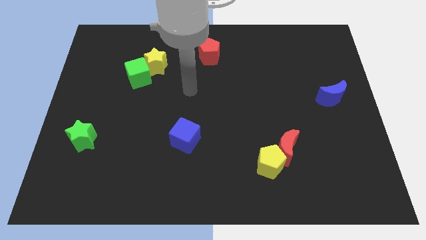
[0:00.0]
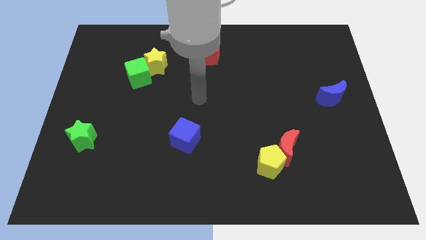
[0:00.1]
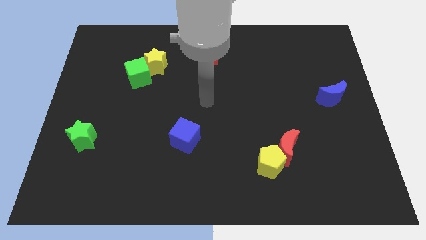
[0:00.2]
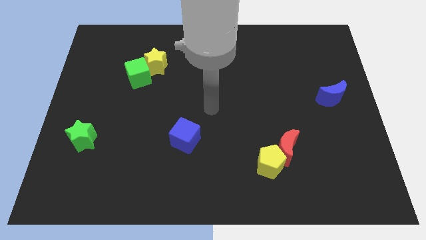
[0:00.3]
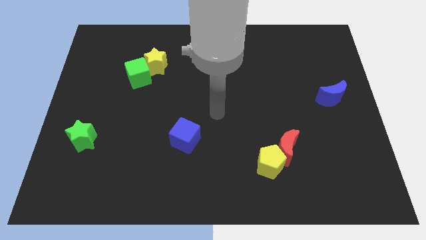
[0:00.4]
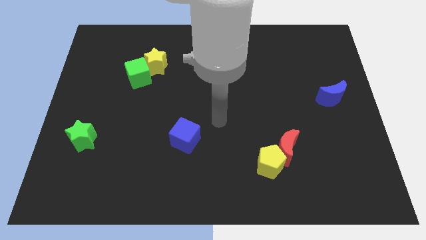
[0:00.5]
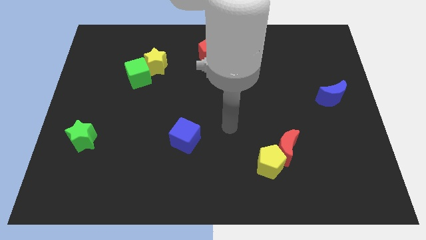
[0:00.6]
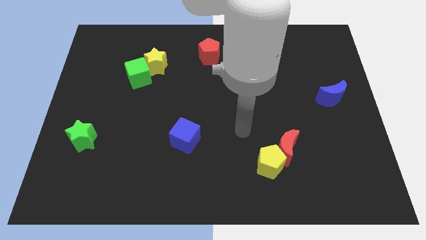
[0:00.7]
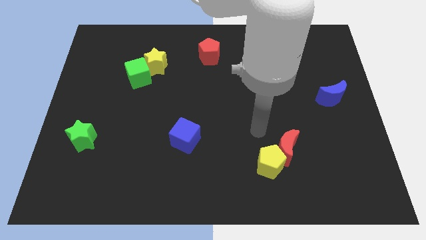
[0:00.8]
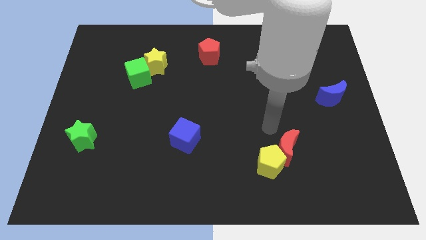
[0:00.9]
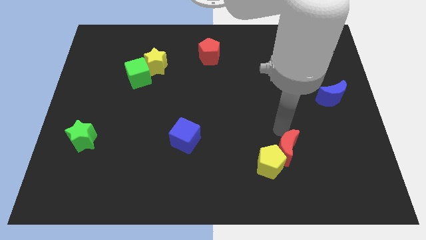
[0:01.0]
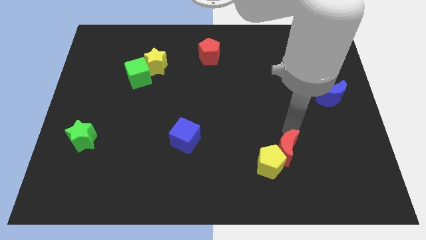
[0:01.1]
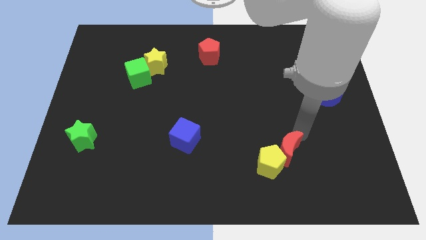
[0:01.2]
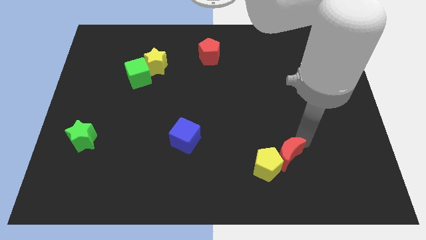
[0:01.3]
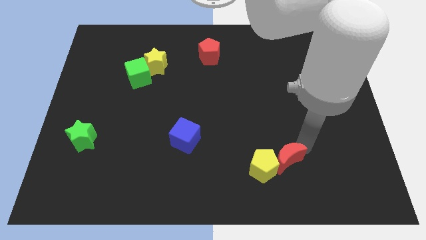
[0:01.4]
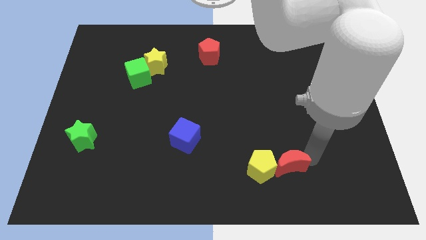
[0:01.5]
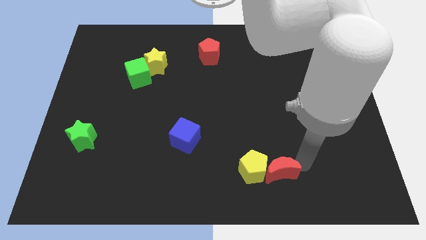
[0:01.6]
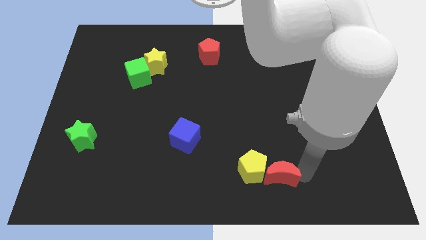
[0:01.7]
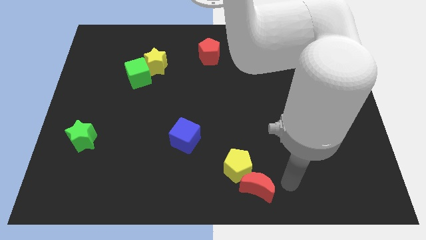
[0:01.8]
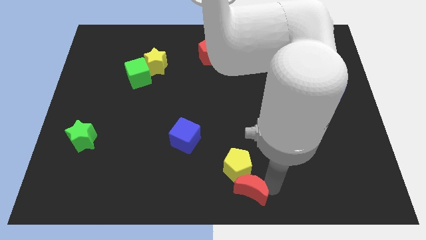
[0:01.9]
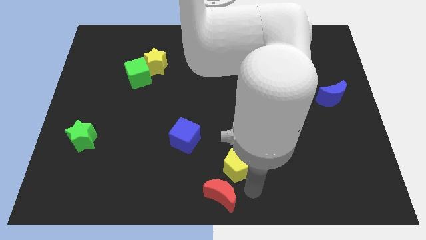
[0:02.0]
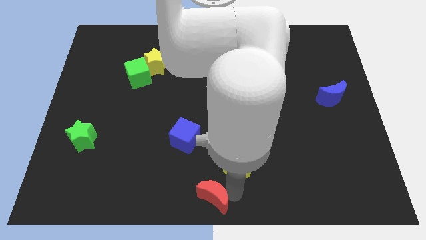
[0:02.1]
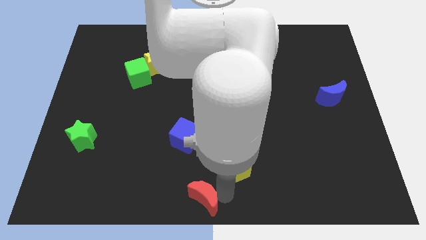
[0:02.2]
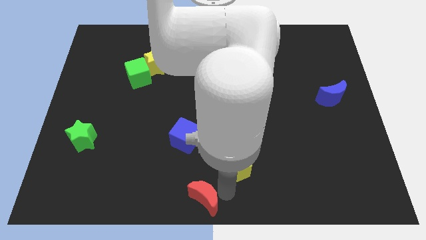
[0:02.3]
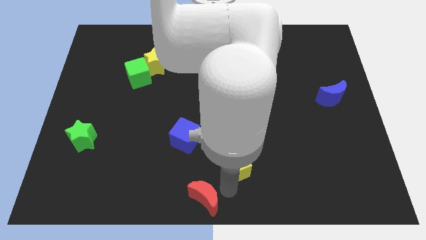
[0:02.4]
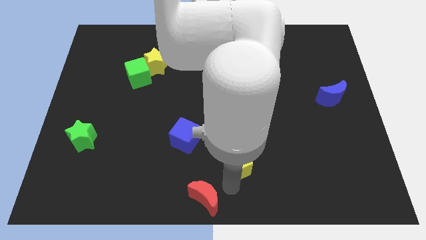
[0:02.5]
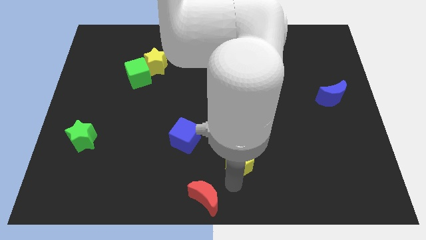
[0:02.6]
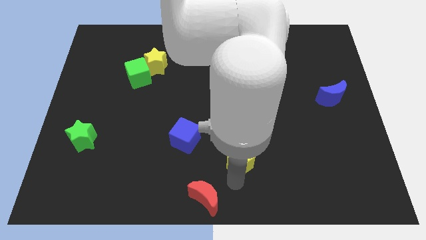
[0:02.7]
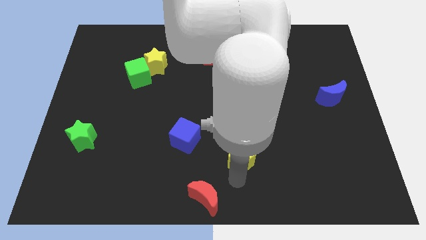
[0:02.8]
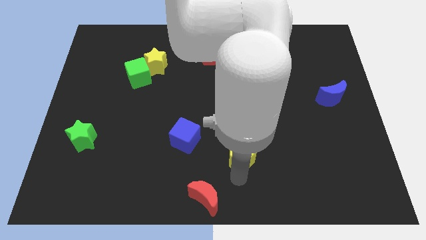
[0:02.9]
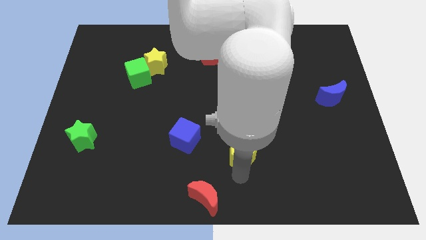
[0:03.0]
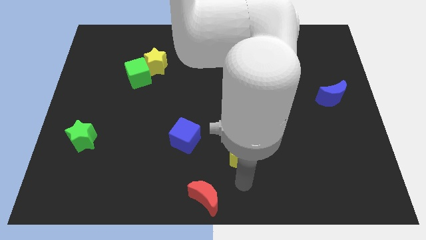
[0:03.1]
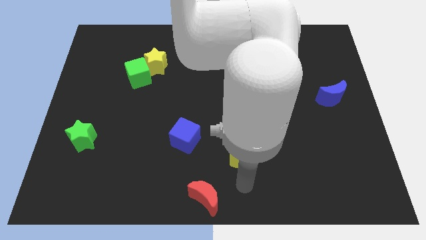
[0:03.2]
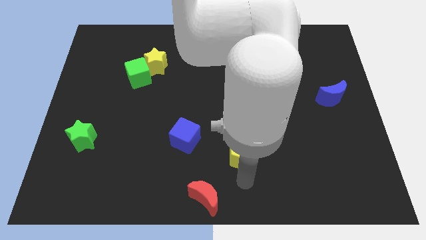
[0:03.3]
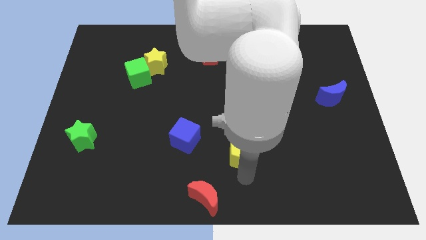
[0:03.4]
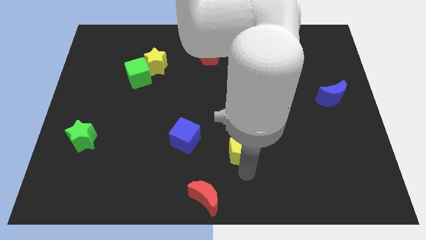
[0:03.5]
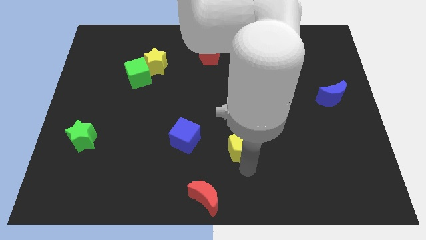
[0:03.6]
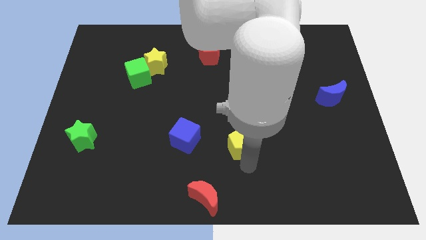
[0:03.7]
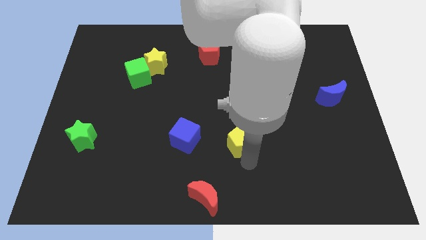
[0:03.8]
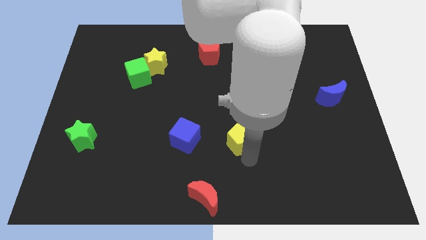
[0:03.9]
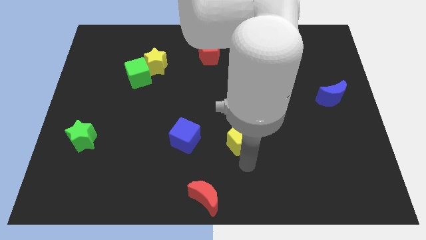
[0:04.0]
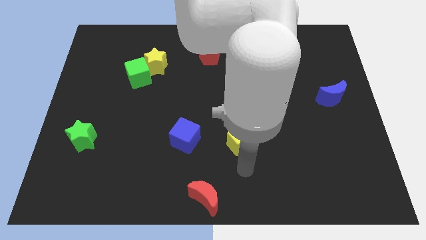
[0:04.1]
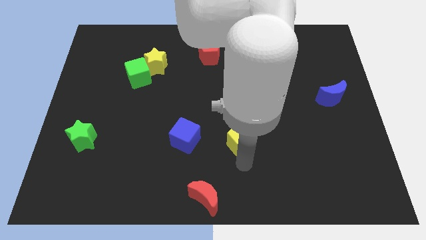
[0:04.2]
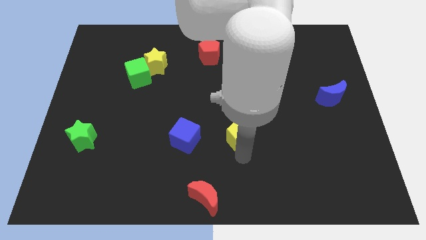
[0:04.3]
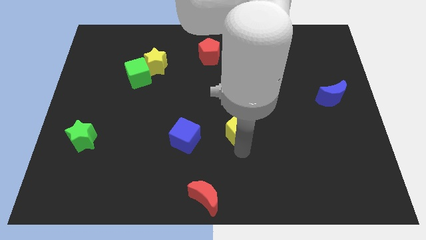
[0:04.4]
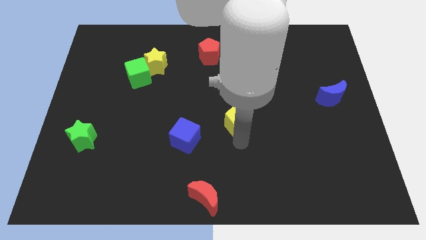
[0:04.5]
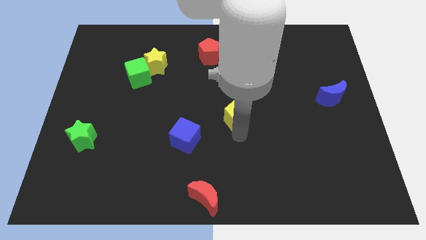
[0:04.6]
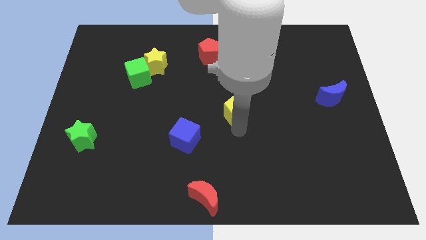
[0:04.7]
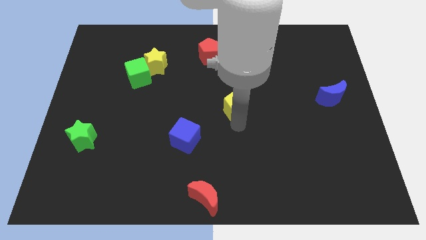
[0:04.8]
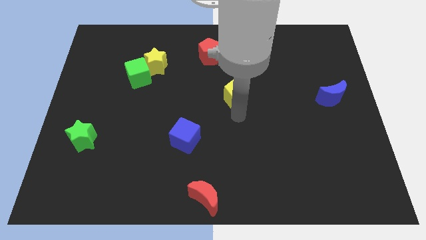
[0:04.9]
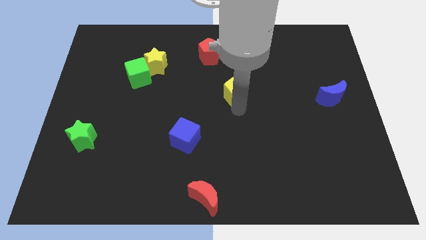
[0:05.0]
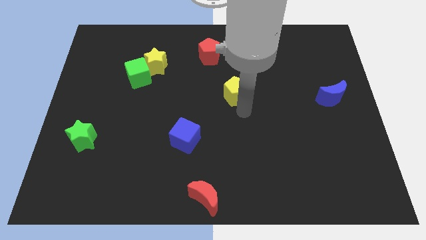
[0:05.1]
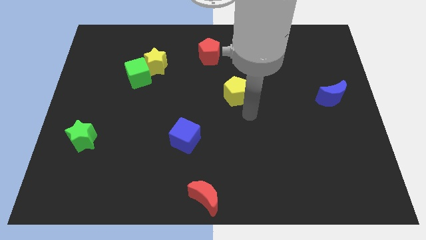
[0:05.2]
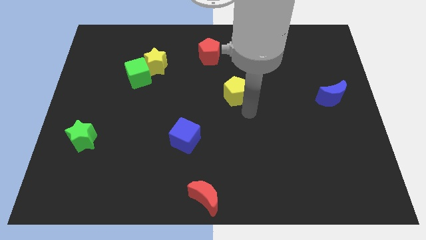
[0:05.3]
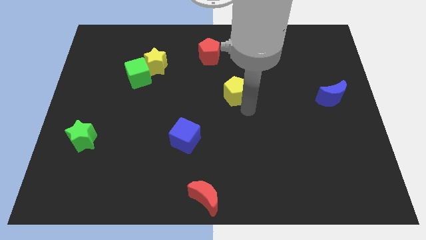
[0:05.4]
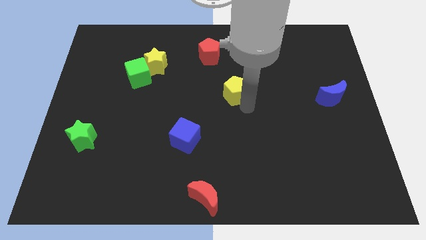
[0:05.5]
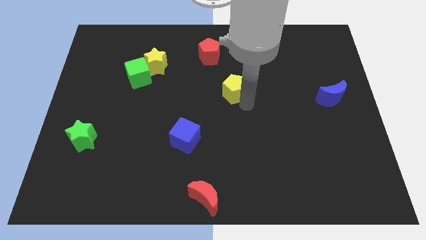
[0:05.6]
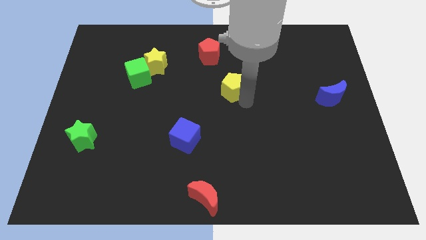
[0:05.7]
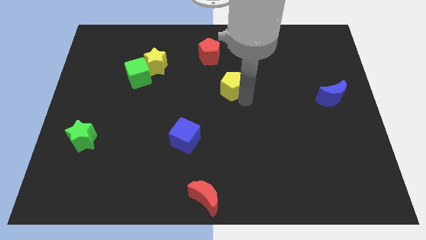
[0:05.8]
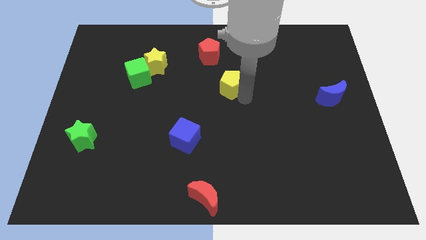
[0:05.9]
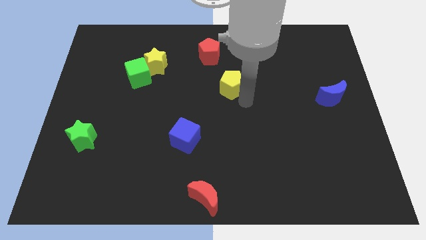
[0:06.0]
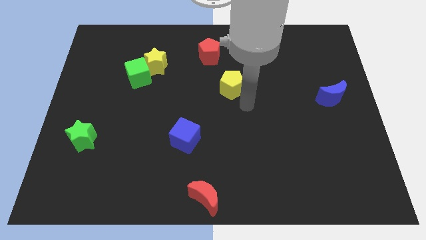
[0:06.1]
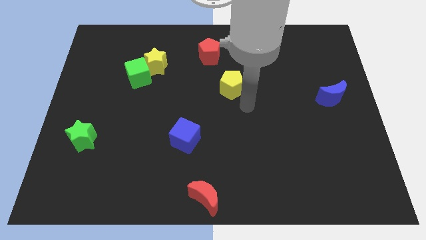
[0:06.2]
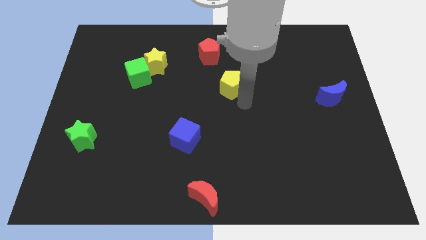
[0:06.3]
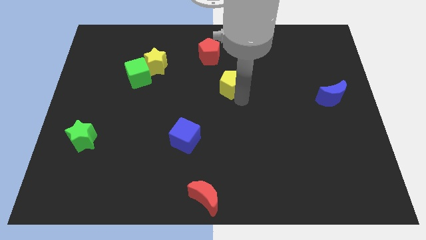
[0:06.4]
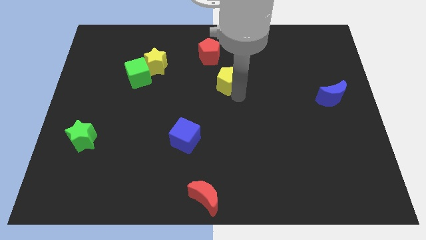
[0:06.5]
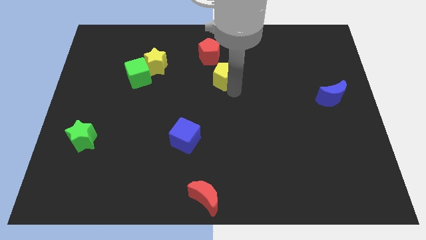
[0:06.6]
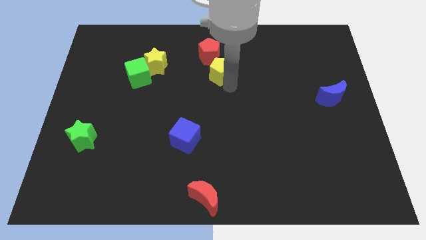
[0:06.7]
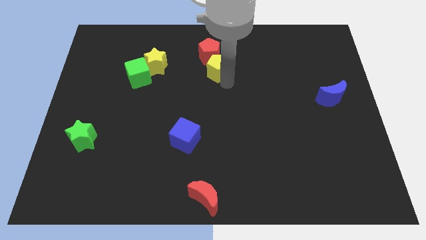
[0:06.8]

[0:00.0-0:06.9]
put the yellow pentagon next to the red pentagon

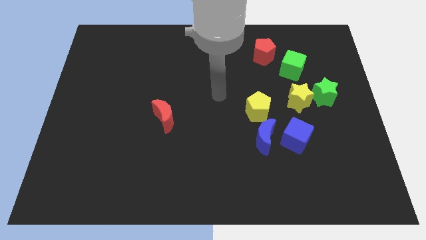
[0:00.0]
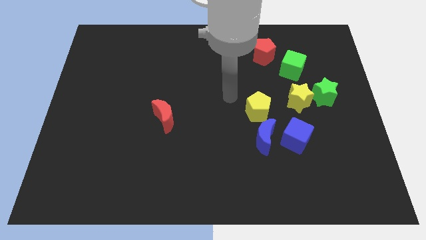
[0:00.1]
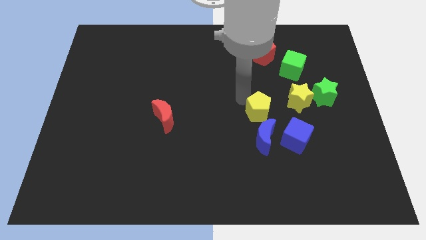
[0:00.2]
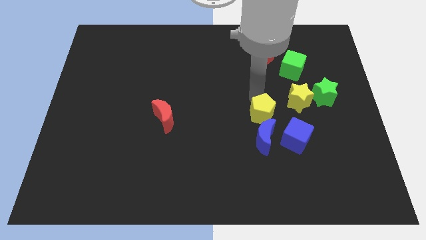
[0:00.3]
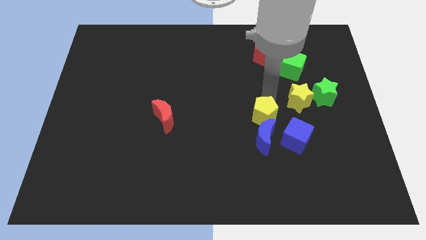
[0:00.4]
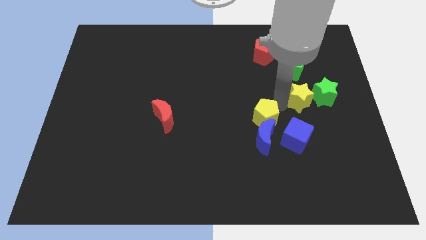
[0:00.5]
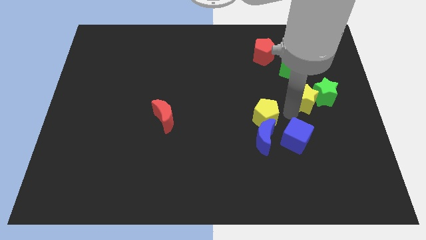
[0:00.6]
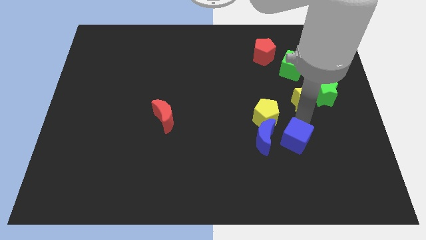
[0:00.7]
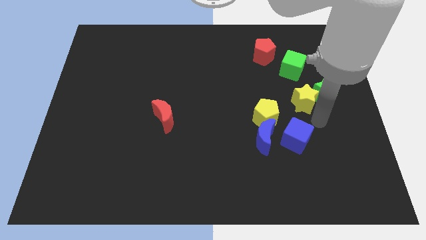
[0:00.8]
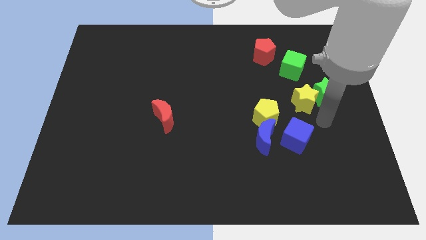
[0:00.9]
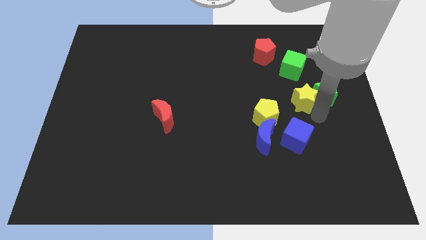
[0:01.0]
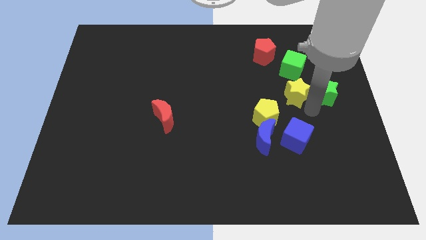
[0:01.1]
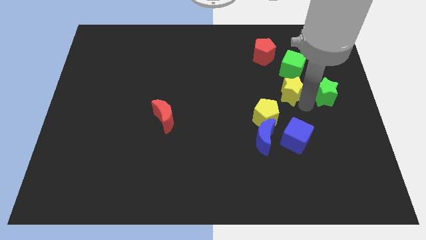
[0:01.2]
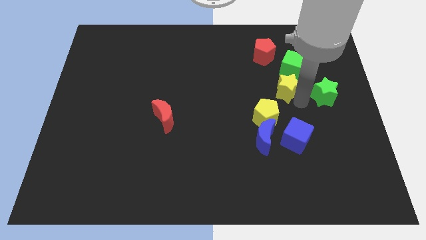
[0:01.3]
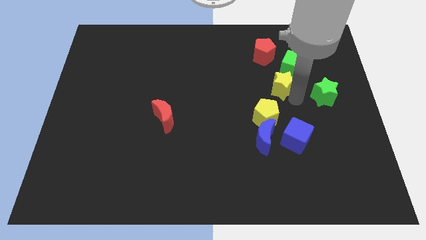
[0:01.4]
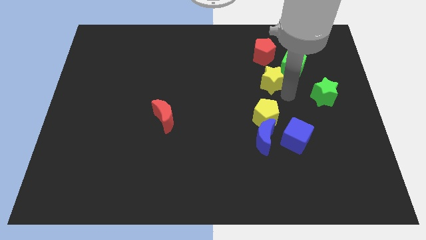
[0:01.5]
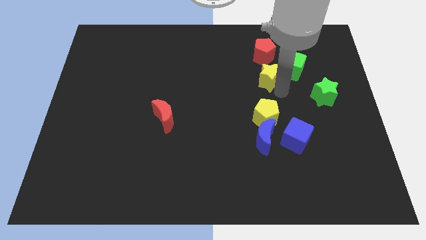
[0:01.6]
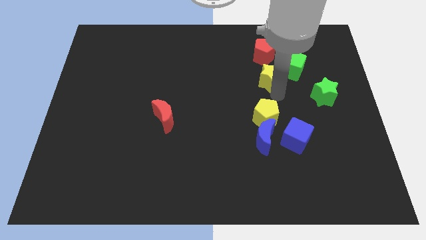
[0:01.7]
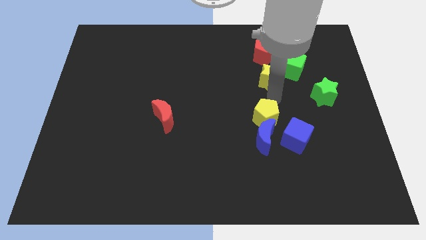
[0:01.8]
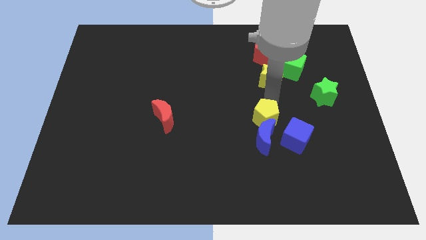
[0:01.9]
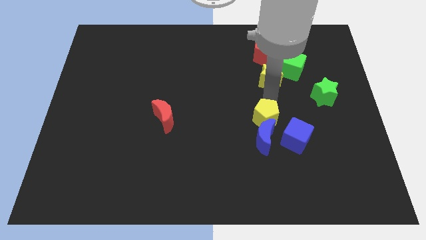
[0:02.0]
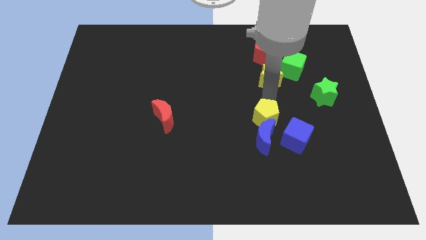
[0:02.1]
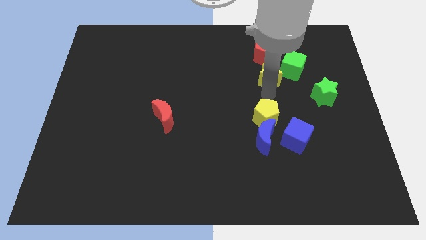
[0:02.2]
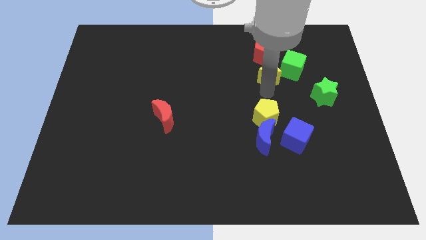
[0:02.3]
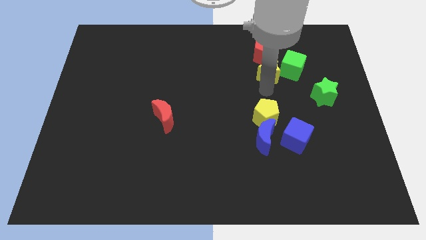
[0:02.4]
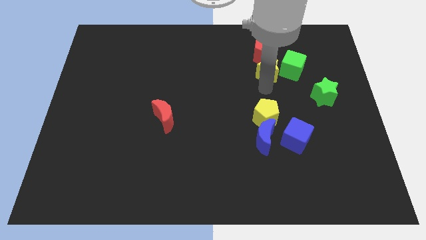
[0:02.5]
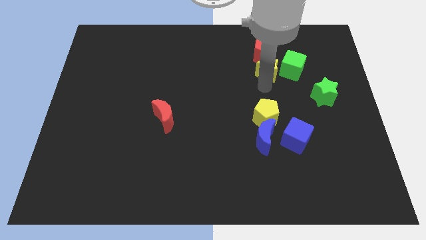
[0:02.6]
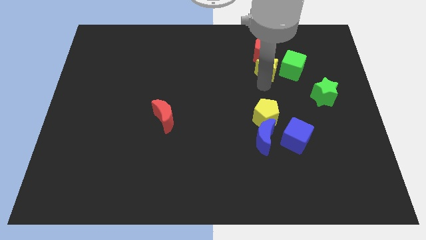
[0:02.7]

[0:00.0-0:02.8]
slide the yellow star close to the red pentagon
